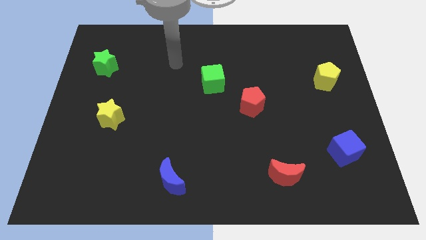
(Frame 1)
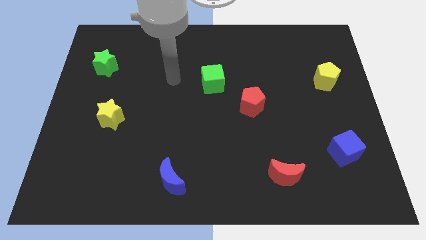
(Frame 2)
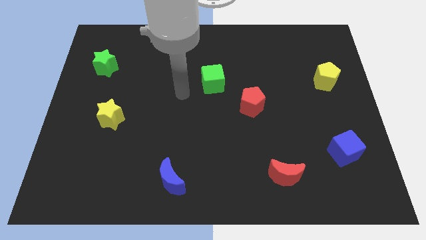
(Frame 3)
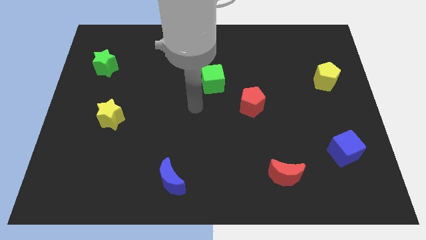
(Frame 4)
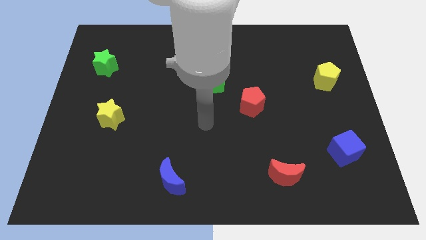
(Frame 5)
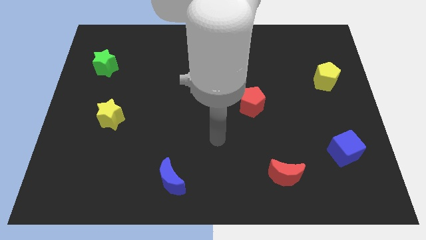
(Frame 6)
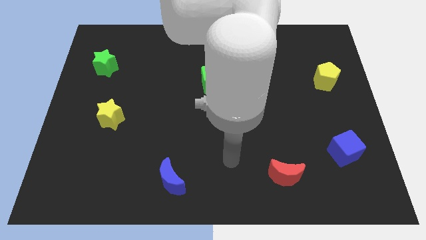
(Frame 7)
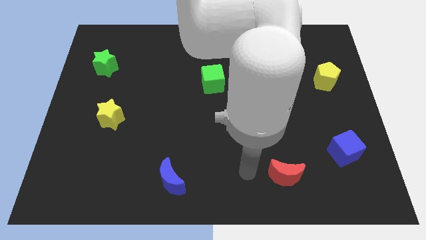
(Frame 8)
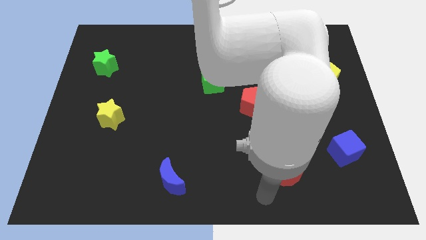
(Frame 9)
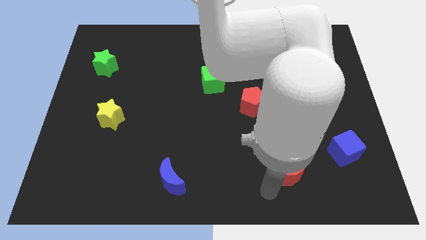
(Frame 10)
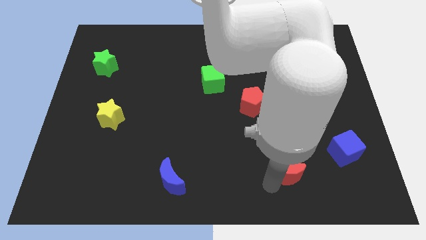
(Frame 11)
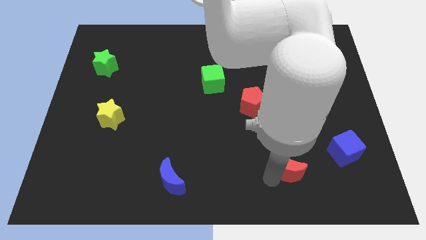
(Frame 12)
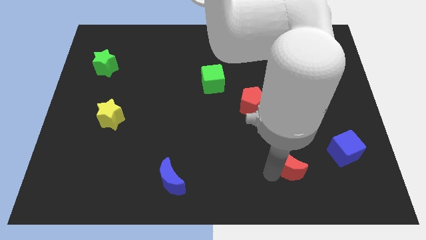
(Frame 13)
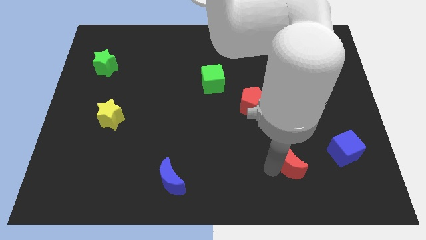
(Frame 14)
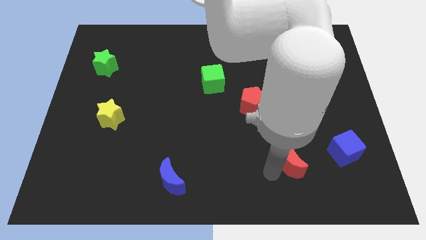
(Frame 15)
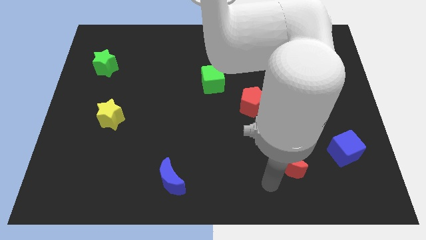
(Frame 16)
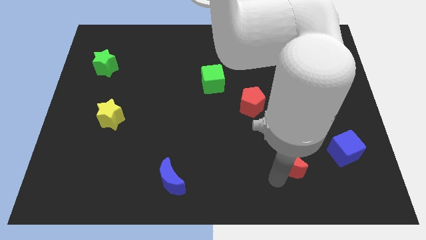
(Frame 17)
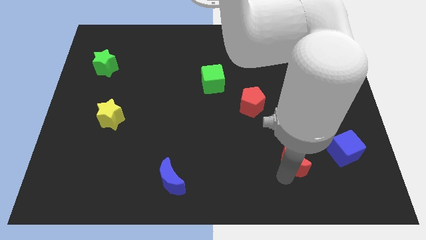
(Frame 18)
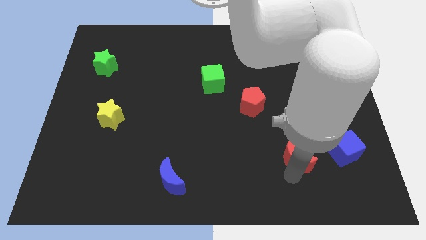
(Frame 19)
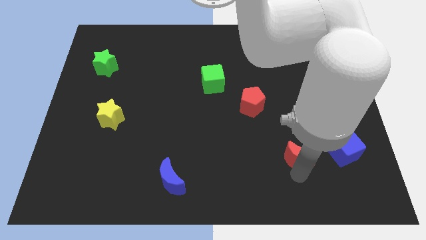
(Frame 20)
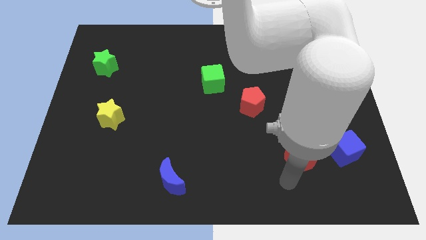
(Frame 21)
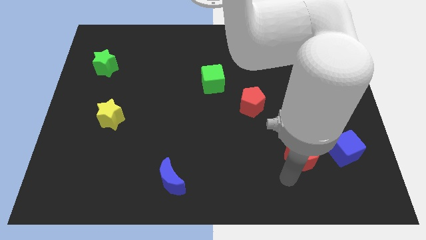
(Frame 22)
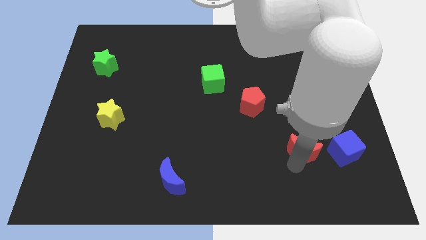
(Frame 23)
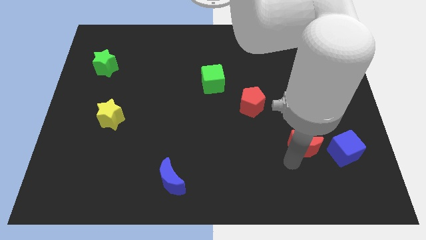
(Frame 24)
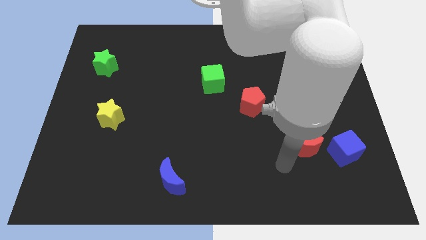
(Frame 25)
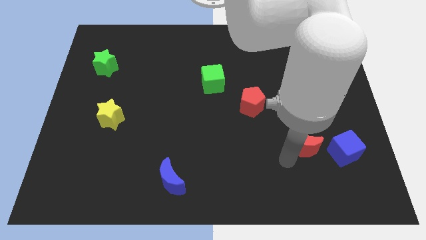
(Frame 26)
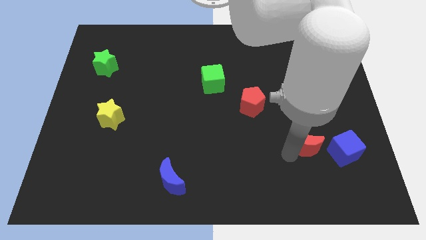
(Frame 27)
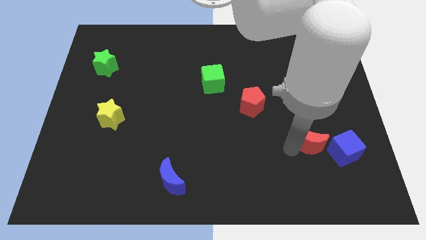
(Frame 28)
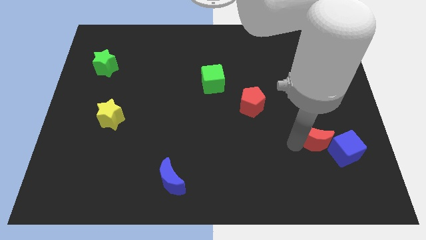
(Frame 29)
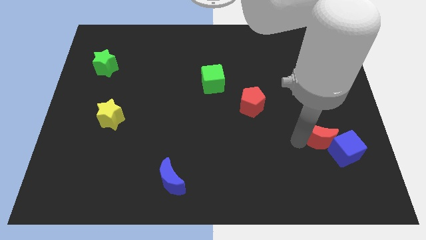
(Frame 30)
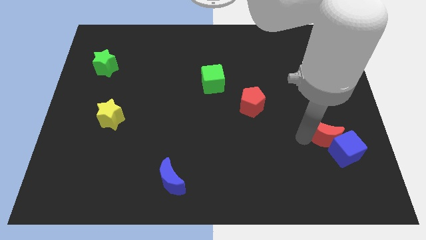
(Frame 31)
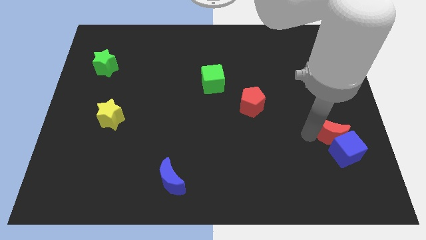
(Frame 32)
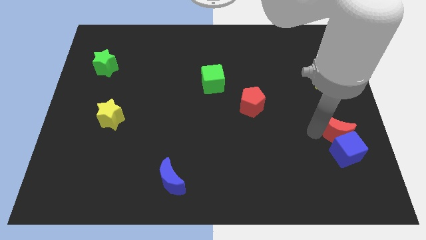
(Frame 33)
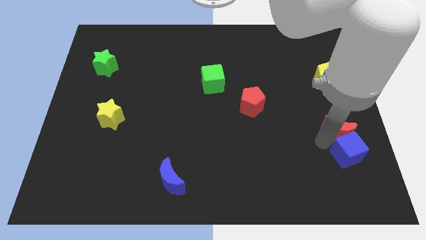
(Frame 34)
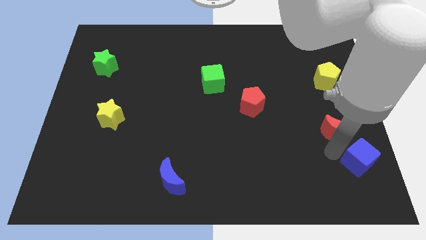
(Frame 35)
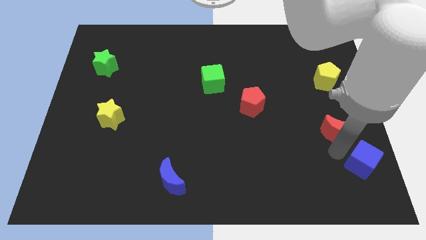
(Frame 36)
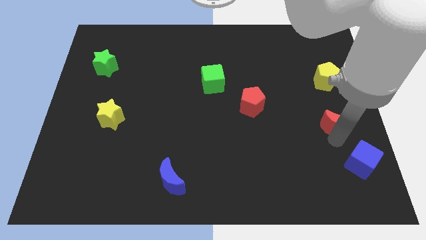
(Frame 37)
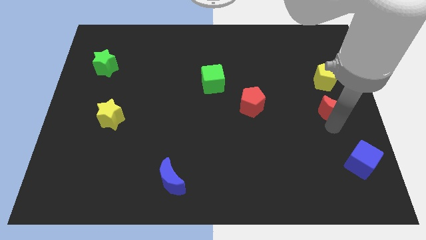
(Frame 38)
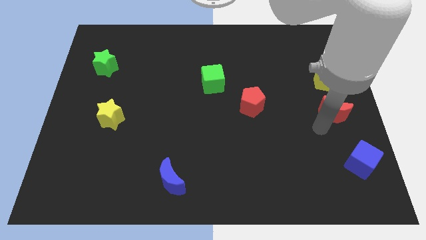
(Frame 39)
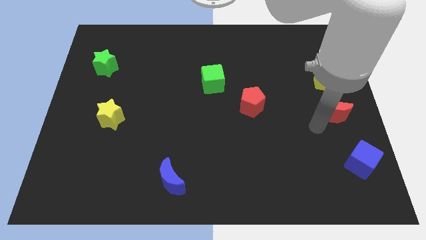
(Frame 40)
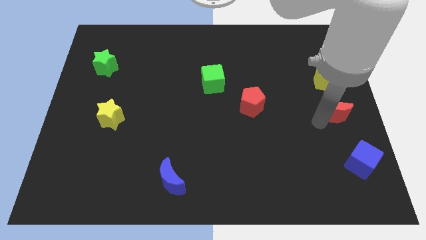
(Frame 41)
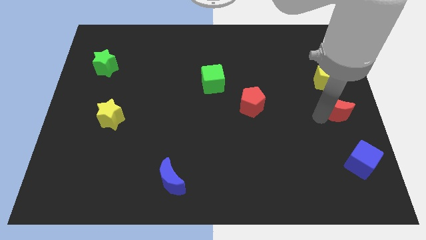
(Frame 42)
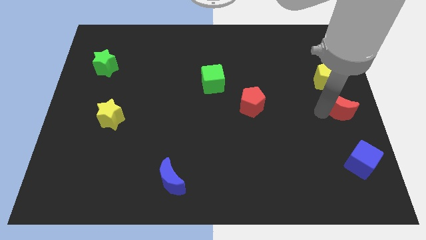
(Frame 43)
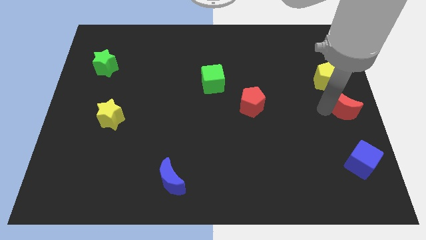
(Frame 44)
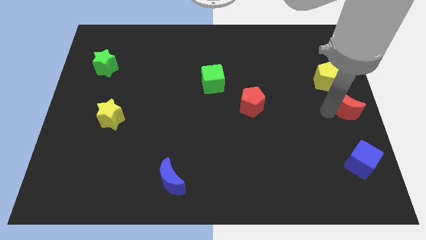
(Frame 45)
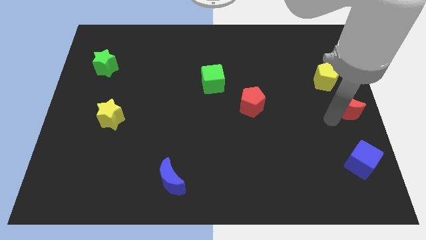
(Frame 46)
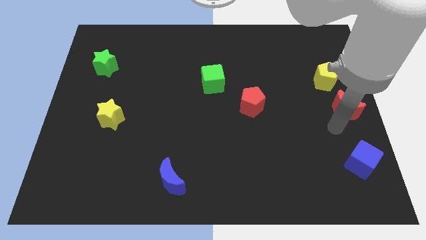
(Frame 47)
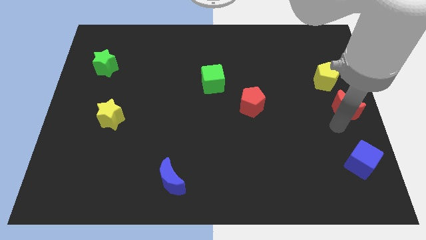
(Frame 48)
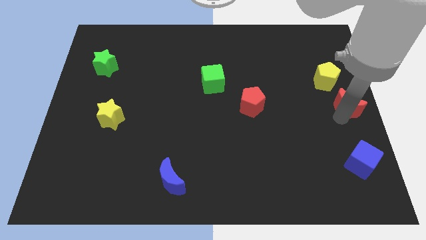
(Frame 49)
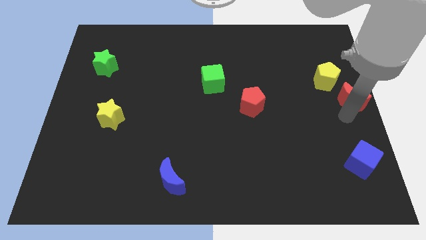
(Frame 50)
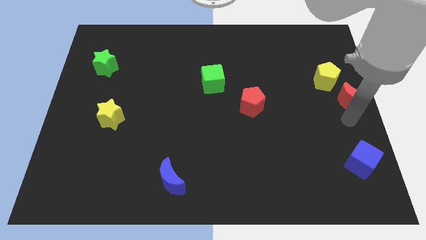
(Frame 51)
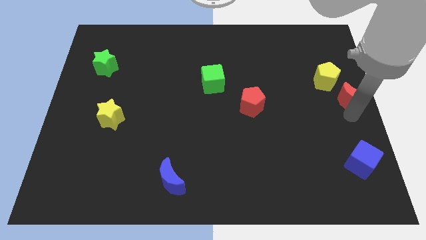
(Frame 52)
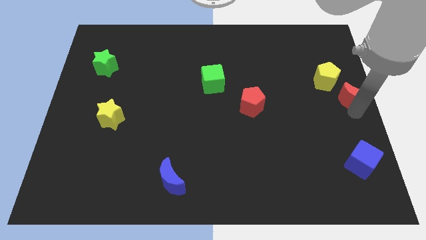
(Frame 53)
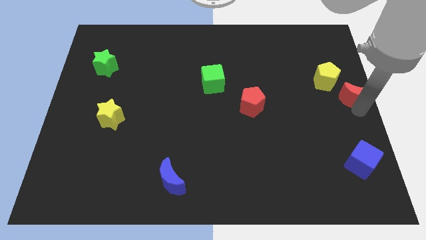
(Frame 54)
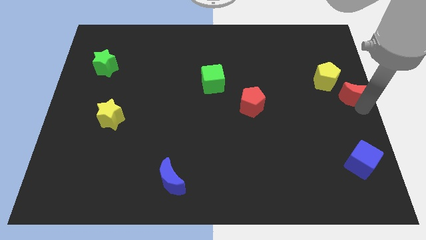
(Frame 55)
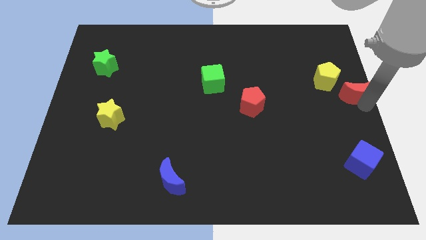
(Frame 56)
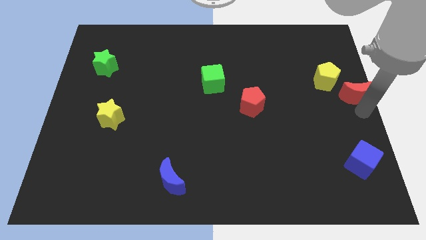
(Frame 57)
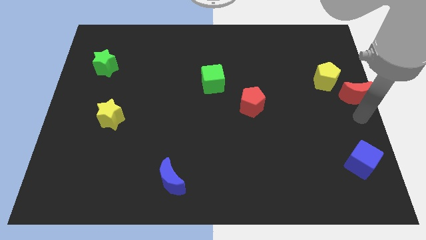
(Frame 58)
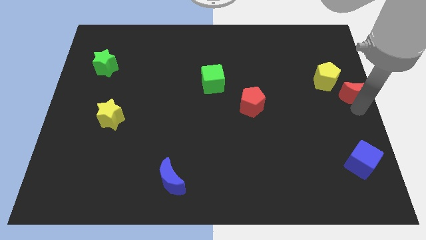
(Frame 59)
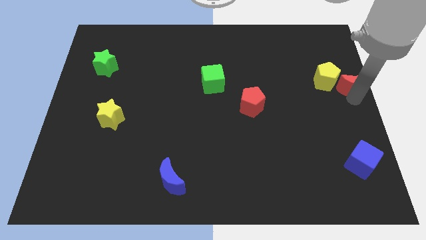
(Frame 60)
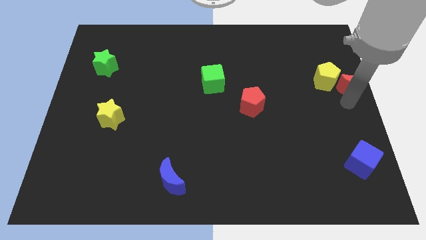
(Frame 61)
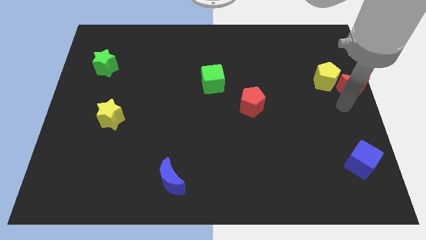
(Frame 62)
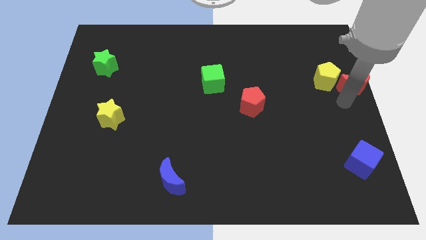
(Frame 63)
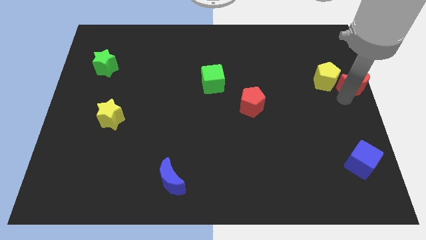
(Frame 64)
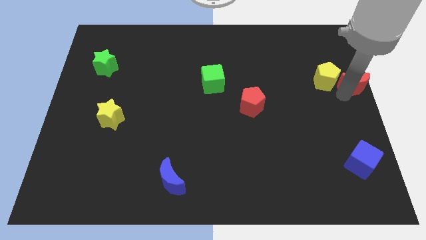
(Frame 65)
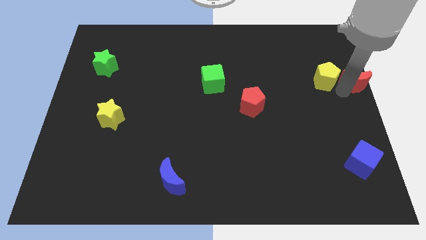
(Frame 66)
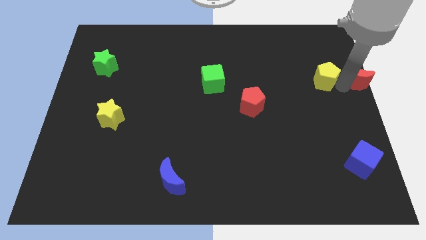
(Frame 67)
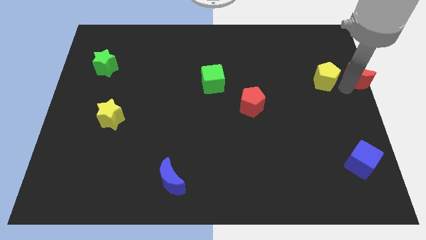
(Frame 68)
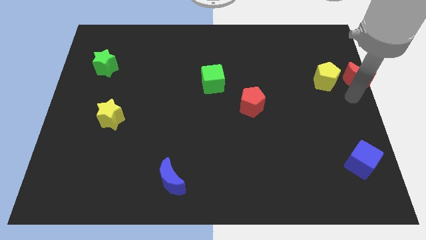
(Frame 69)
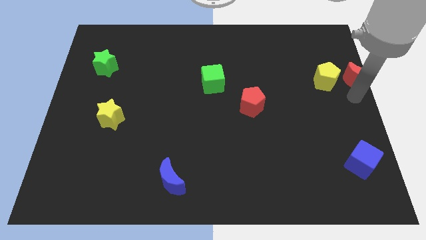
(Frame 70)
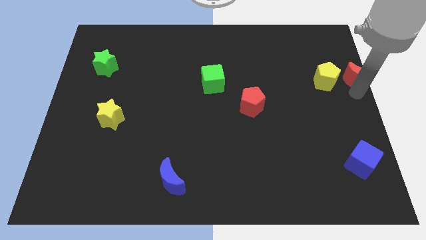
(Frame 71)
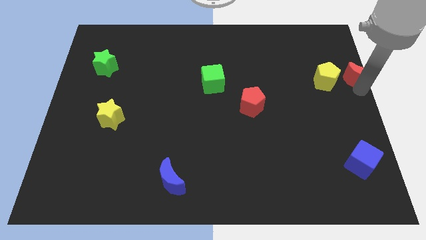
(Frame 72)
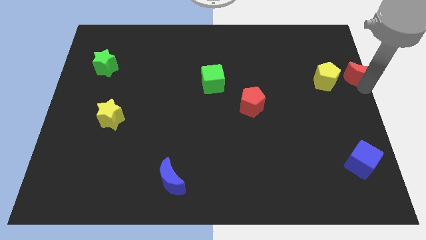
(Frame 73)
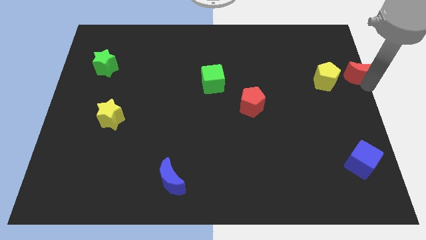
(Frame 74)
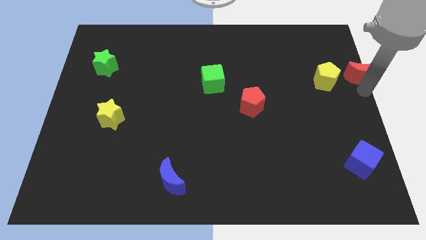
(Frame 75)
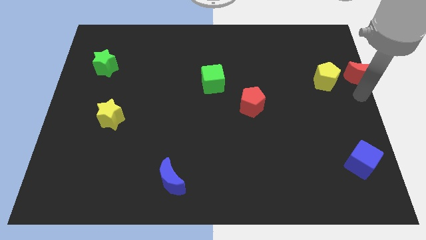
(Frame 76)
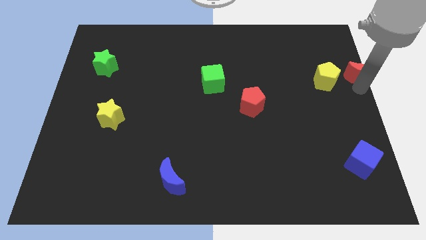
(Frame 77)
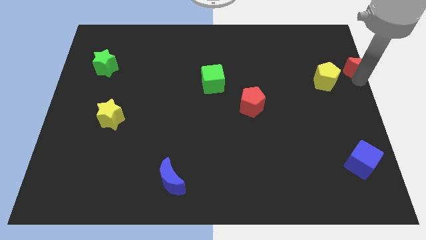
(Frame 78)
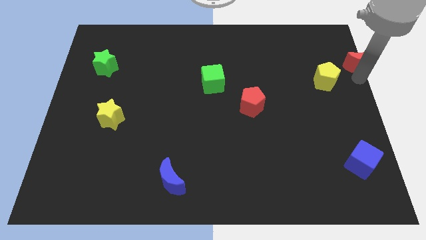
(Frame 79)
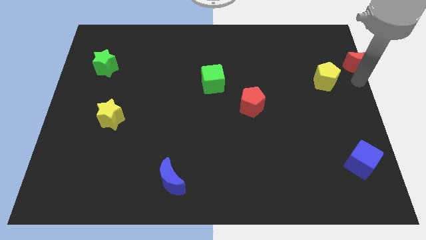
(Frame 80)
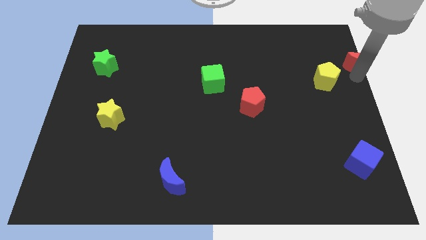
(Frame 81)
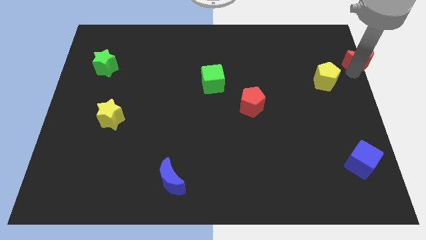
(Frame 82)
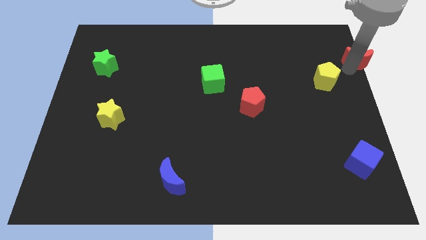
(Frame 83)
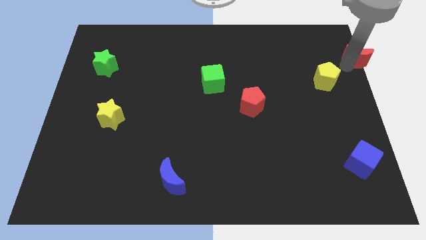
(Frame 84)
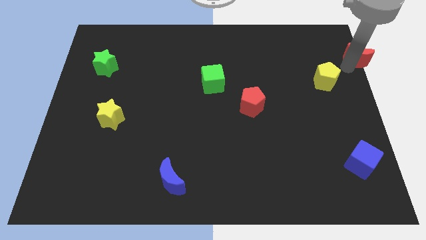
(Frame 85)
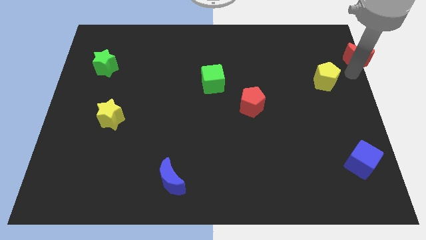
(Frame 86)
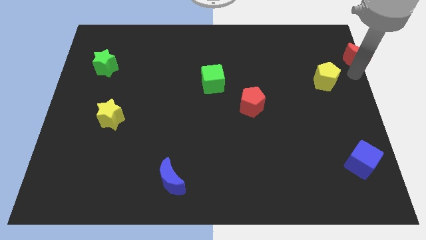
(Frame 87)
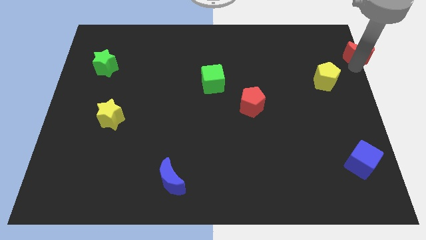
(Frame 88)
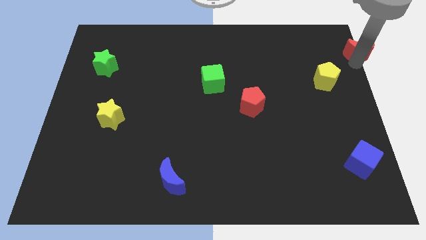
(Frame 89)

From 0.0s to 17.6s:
slide the red moon to the top right of the board
